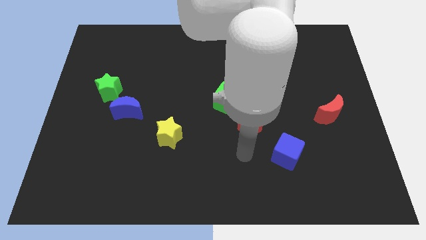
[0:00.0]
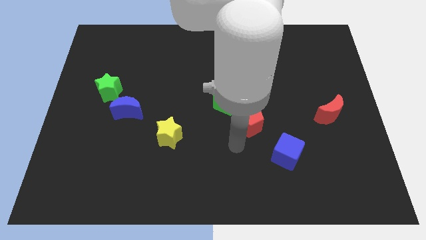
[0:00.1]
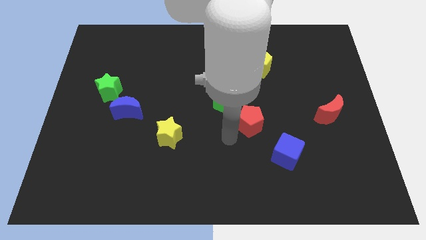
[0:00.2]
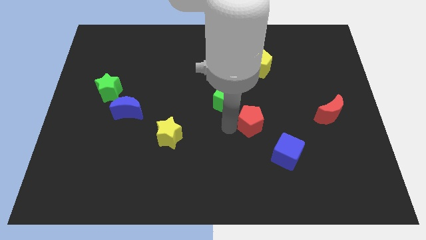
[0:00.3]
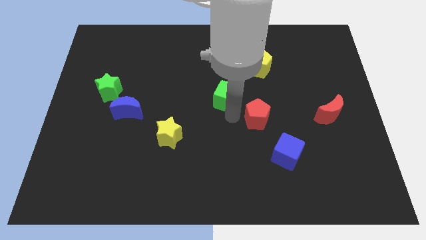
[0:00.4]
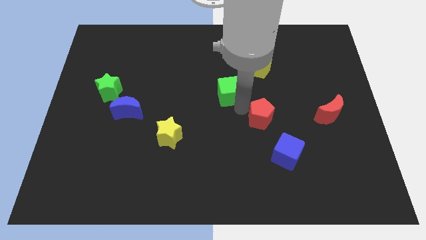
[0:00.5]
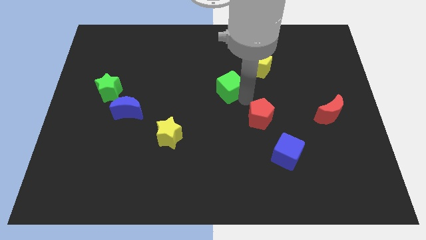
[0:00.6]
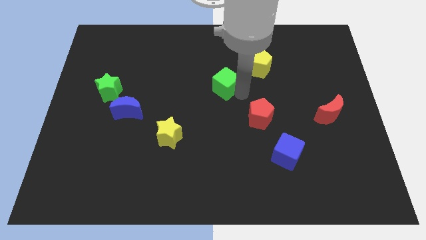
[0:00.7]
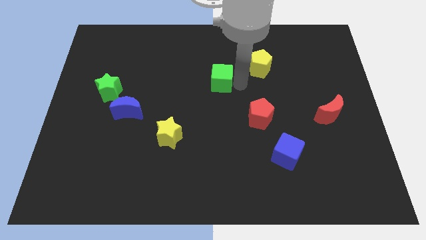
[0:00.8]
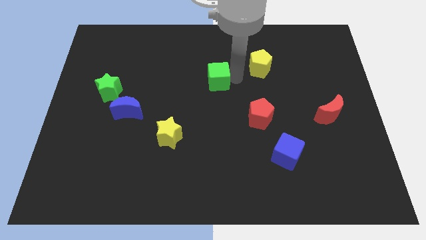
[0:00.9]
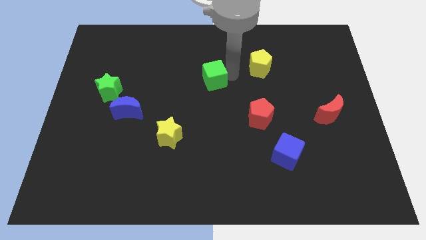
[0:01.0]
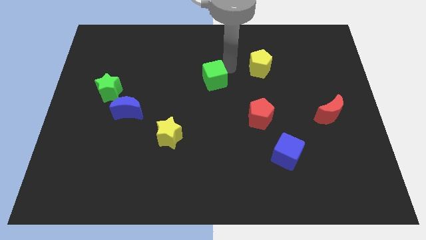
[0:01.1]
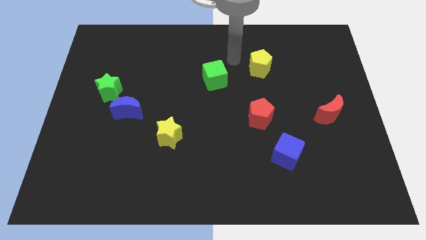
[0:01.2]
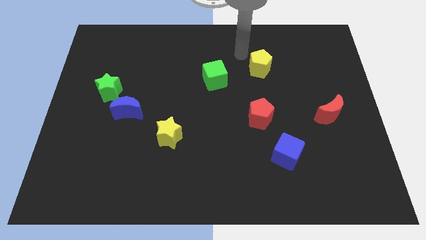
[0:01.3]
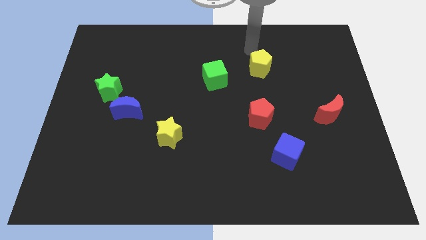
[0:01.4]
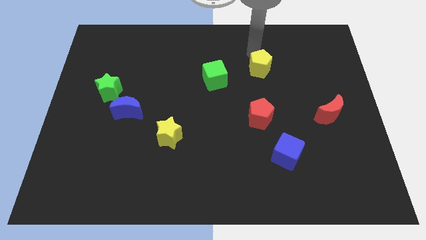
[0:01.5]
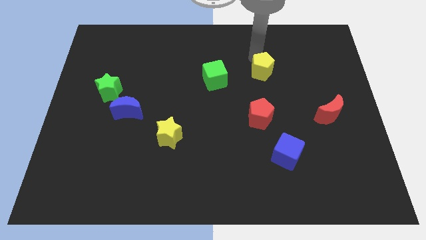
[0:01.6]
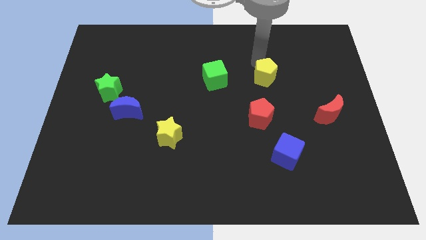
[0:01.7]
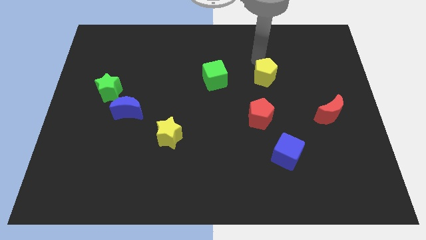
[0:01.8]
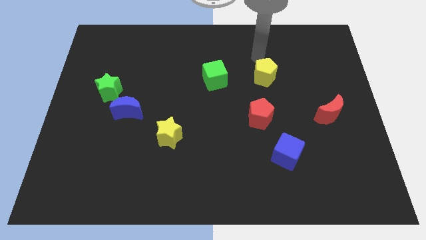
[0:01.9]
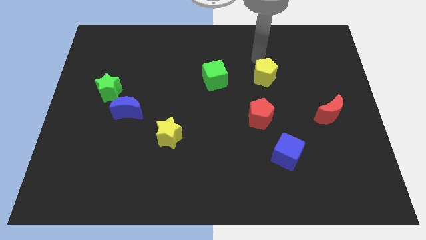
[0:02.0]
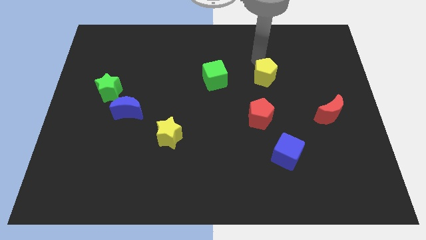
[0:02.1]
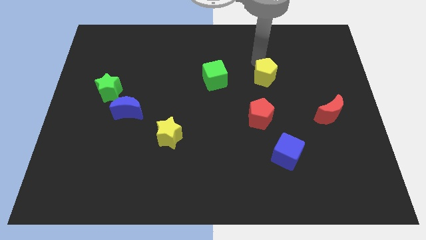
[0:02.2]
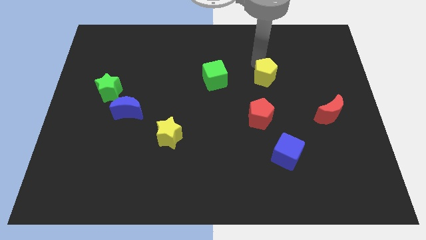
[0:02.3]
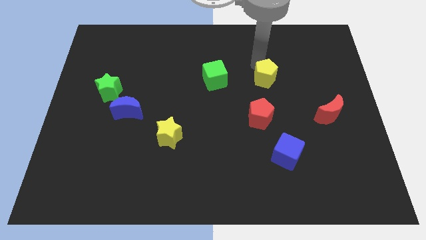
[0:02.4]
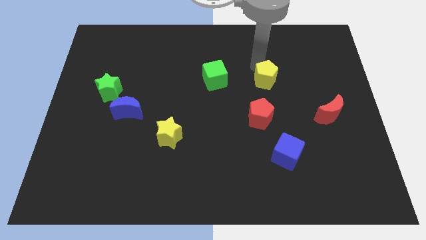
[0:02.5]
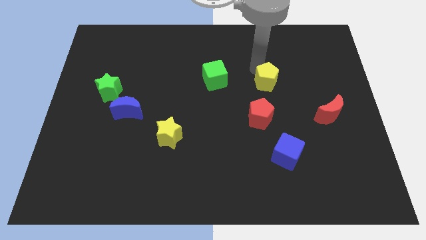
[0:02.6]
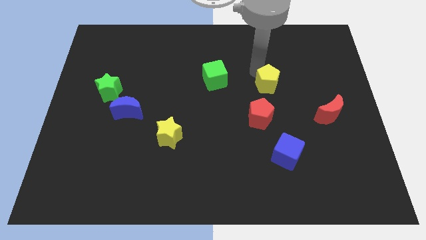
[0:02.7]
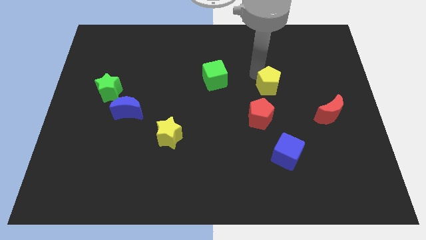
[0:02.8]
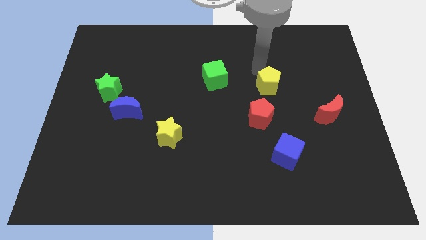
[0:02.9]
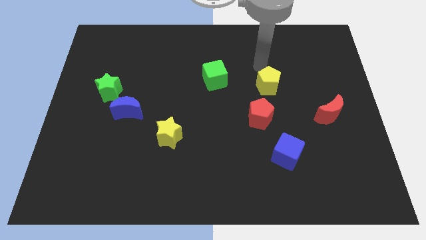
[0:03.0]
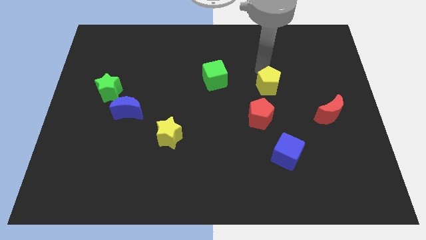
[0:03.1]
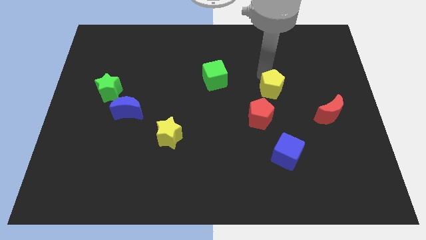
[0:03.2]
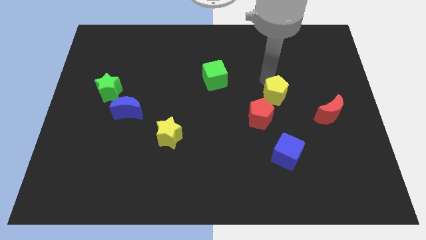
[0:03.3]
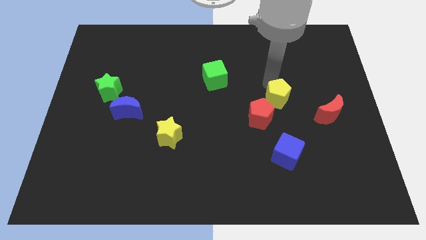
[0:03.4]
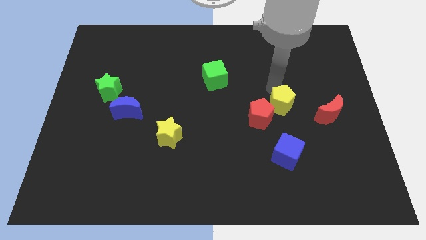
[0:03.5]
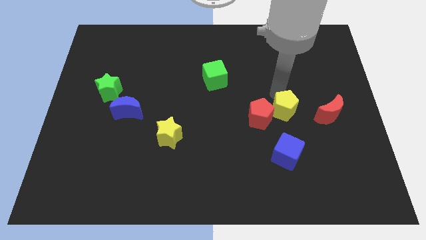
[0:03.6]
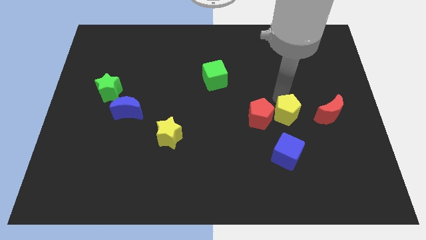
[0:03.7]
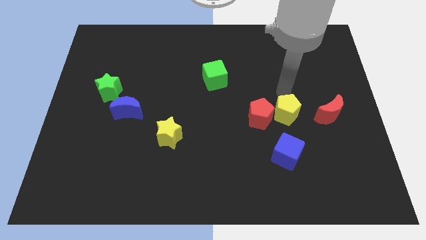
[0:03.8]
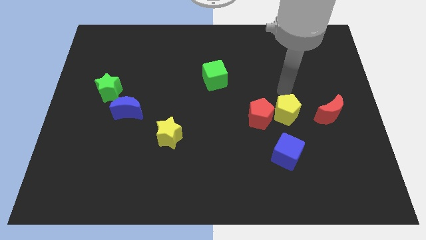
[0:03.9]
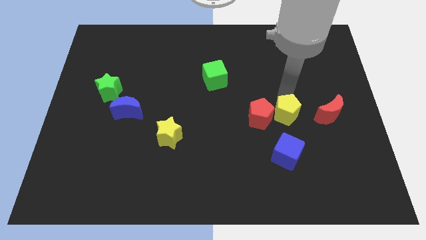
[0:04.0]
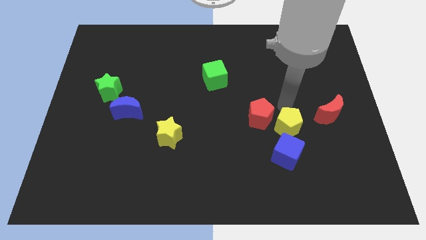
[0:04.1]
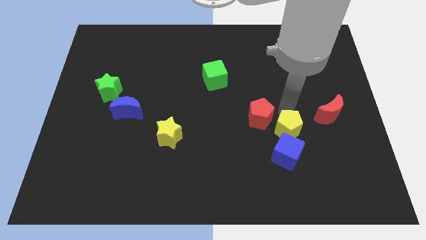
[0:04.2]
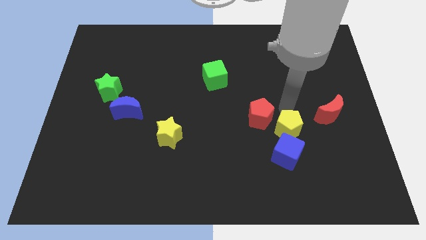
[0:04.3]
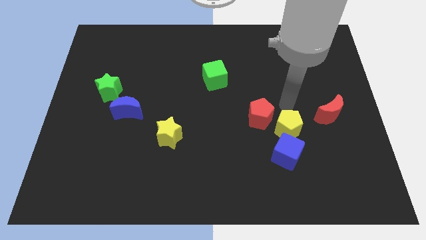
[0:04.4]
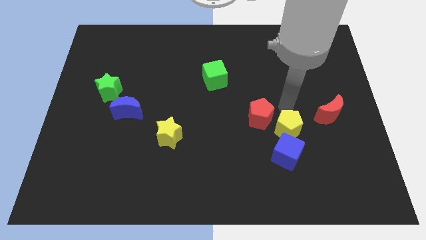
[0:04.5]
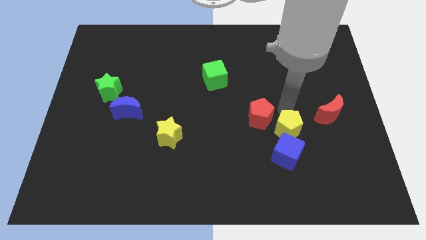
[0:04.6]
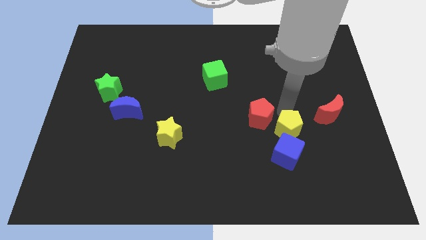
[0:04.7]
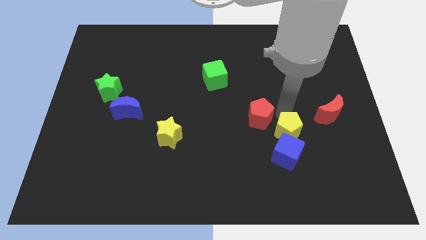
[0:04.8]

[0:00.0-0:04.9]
slide the yellow pentagon next to the blue cube

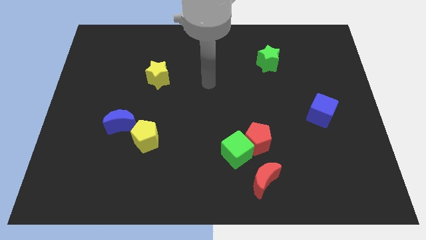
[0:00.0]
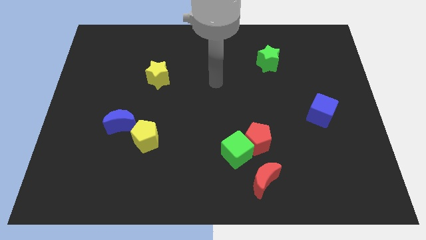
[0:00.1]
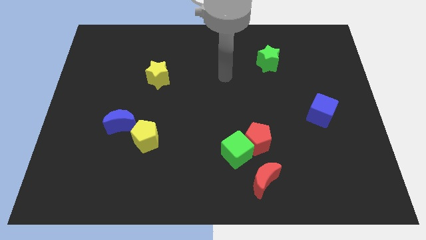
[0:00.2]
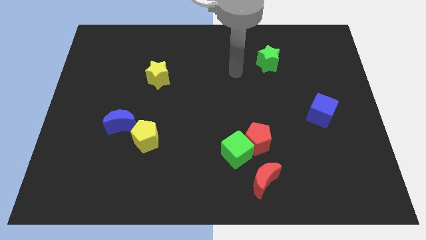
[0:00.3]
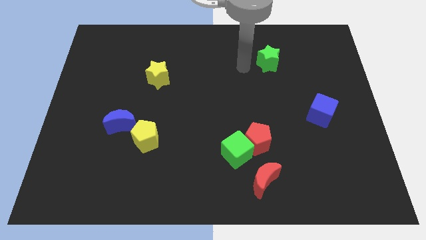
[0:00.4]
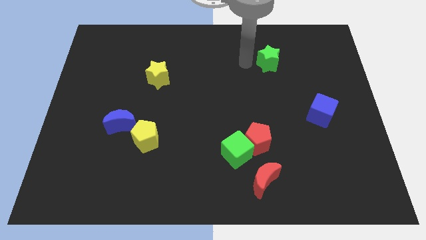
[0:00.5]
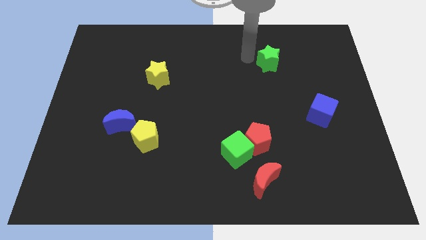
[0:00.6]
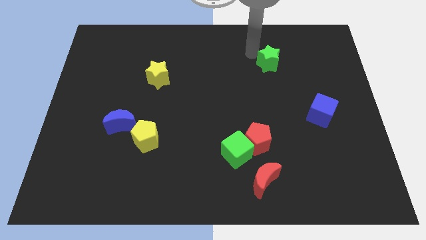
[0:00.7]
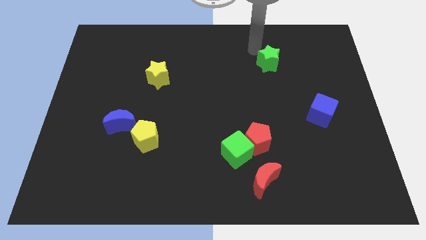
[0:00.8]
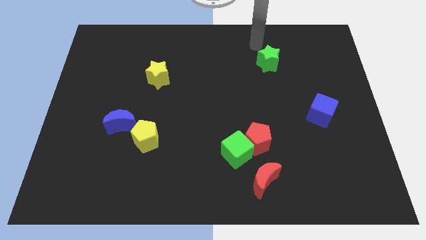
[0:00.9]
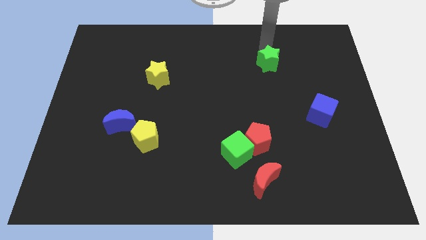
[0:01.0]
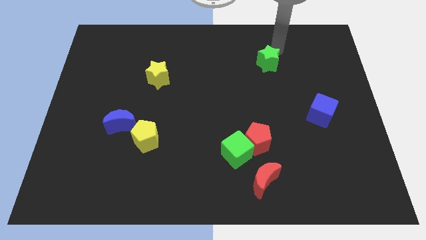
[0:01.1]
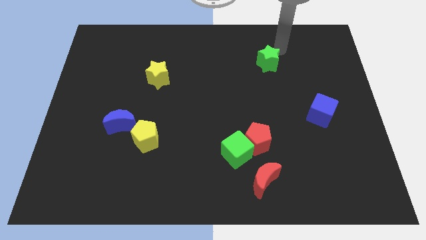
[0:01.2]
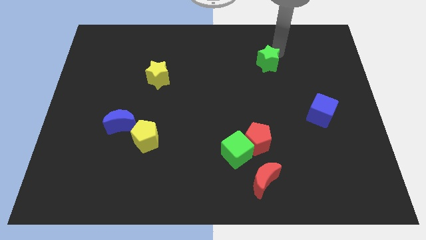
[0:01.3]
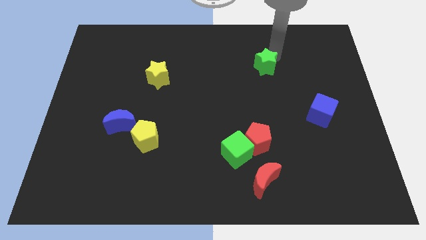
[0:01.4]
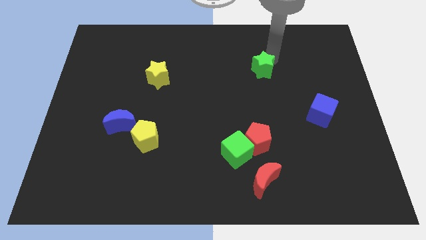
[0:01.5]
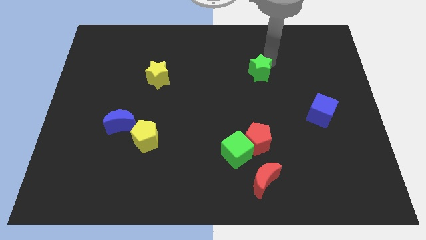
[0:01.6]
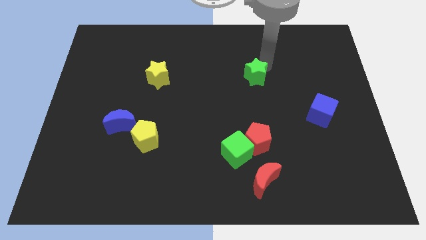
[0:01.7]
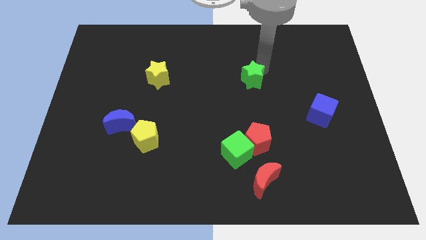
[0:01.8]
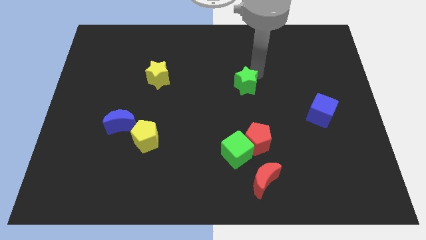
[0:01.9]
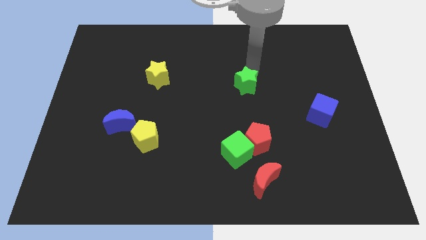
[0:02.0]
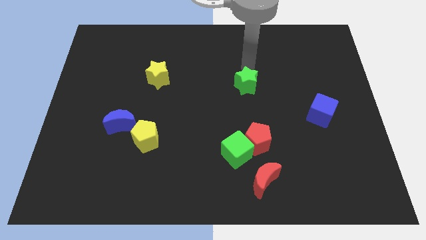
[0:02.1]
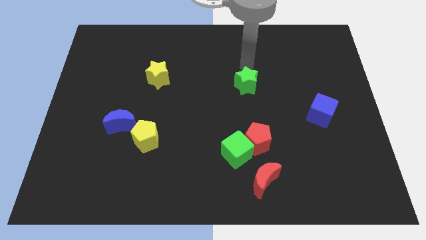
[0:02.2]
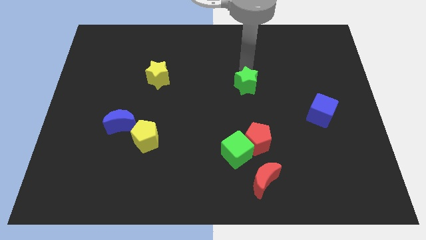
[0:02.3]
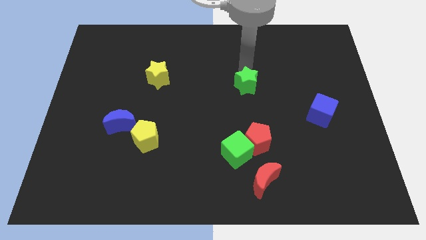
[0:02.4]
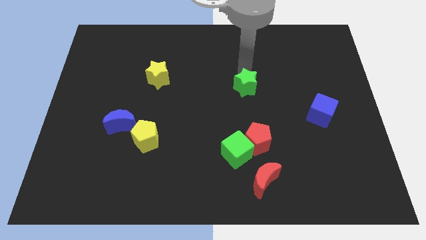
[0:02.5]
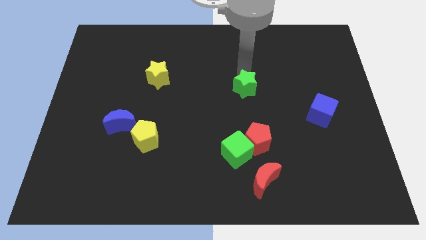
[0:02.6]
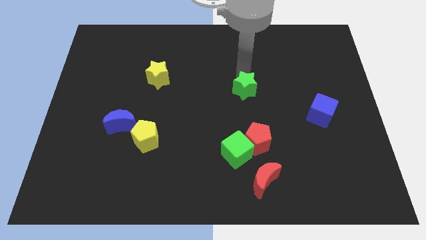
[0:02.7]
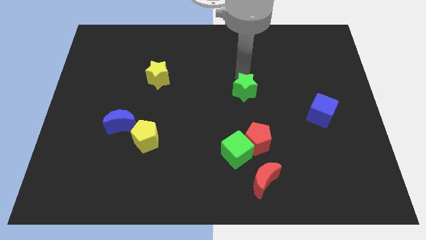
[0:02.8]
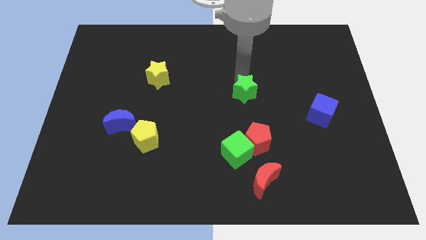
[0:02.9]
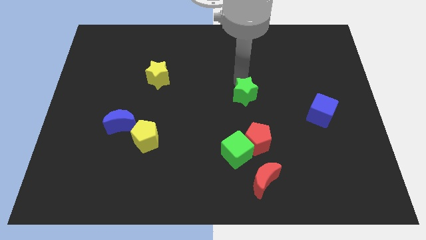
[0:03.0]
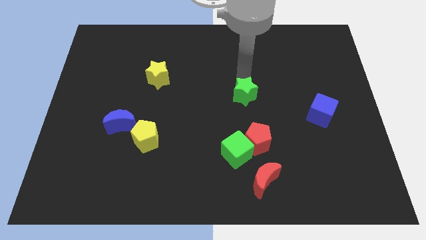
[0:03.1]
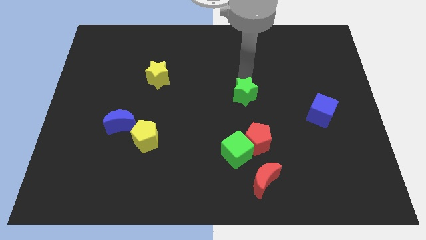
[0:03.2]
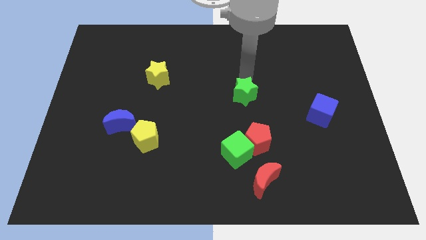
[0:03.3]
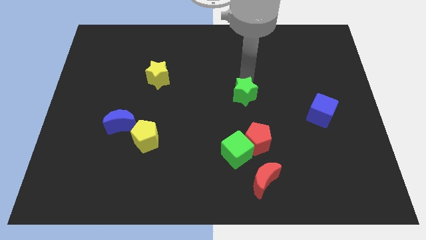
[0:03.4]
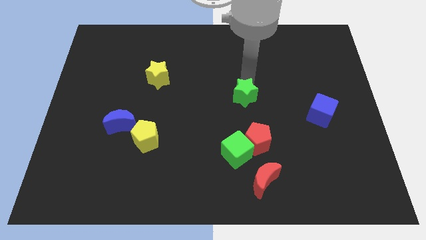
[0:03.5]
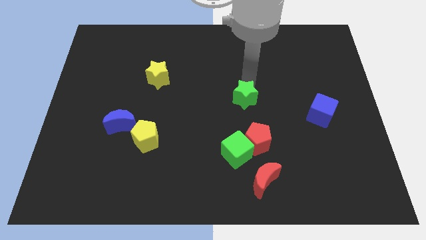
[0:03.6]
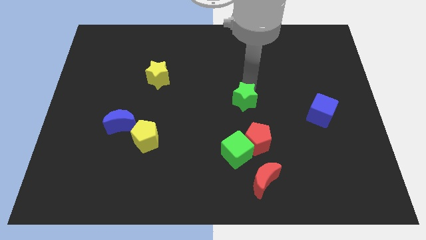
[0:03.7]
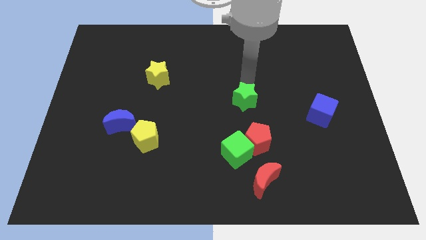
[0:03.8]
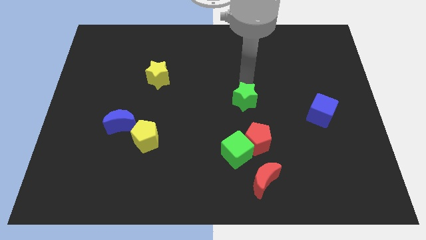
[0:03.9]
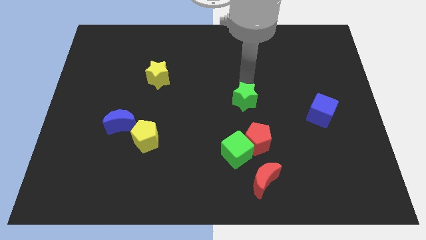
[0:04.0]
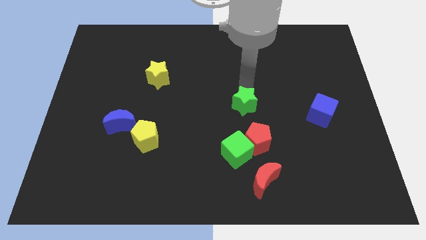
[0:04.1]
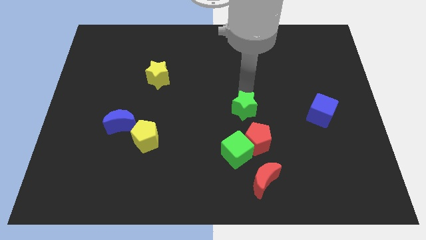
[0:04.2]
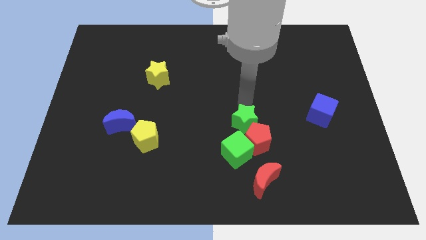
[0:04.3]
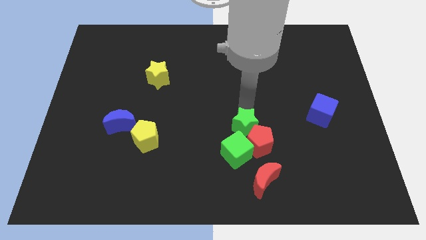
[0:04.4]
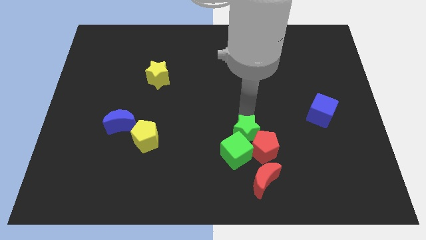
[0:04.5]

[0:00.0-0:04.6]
slide the green star close to the green cube
